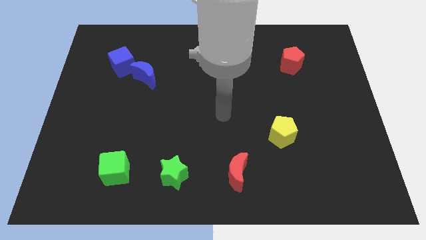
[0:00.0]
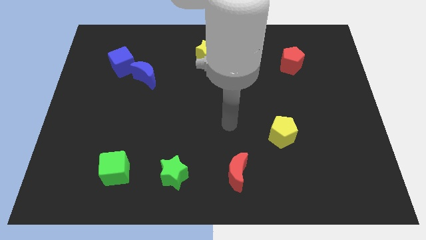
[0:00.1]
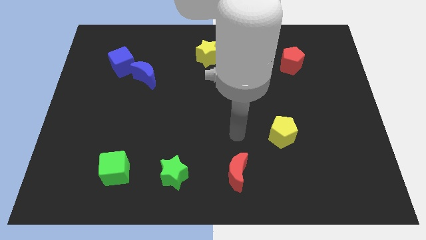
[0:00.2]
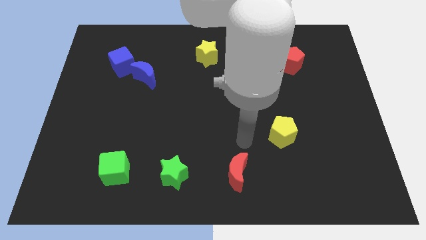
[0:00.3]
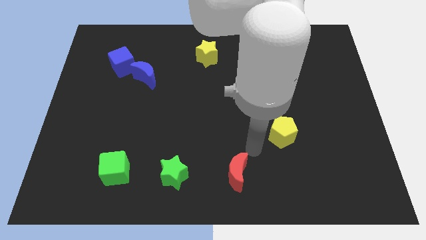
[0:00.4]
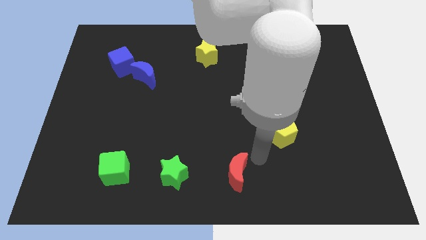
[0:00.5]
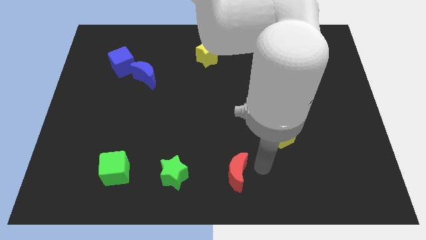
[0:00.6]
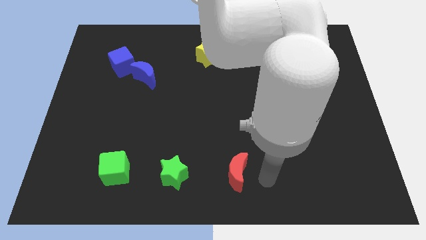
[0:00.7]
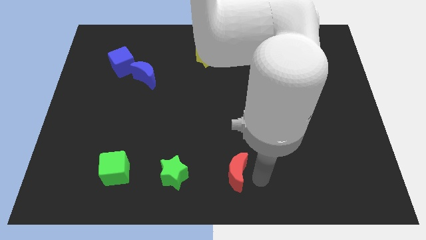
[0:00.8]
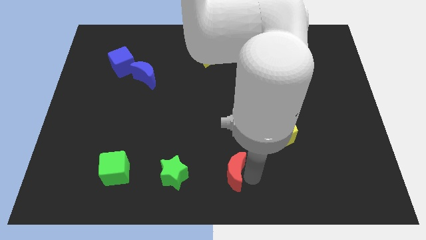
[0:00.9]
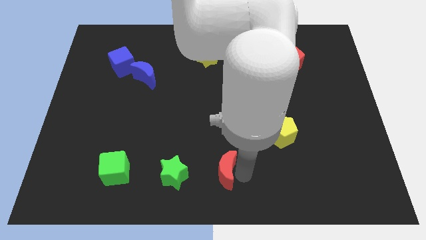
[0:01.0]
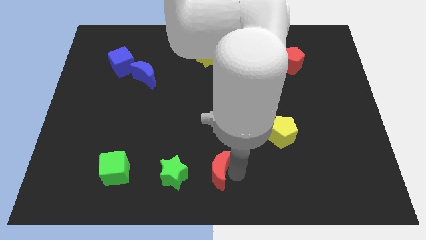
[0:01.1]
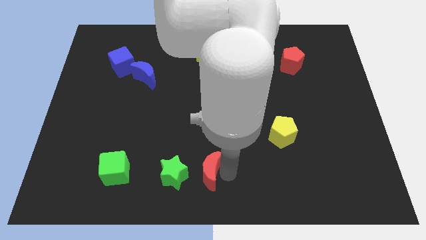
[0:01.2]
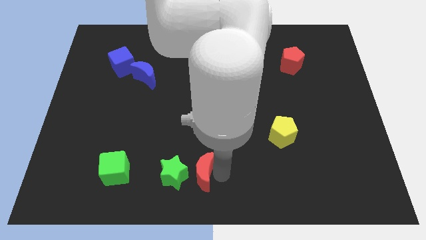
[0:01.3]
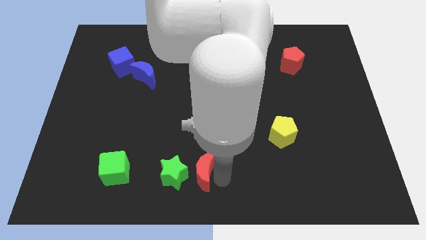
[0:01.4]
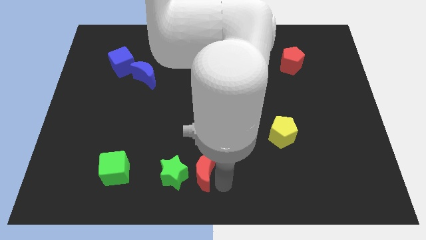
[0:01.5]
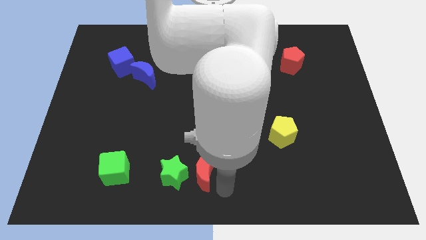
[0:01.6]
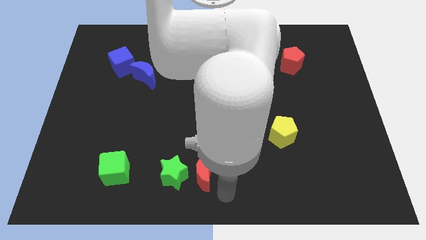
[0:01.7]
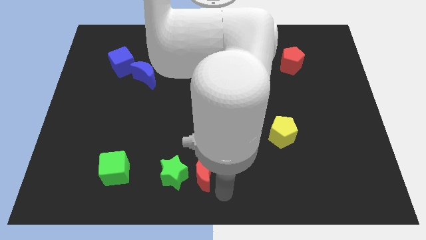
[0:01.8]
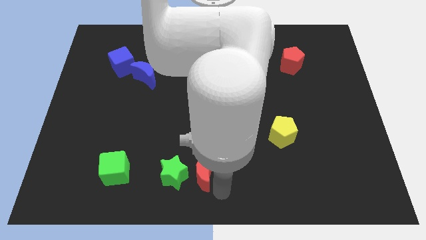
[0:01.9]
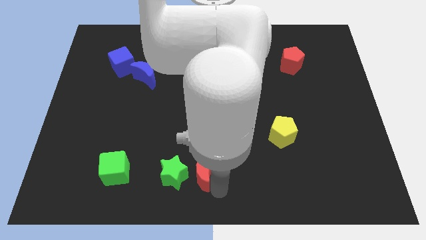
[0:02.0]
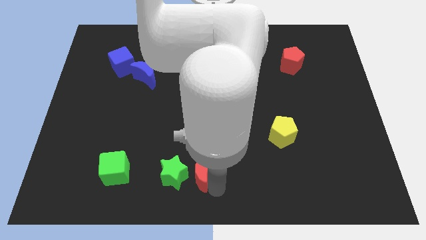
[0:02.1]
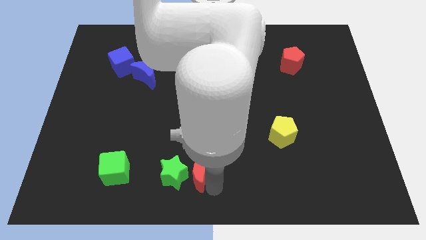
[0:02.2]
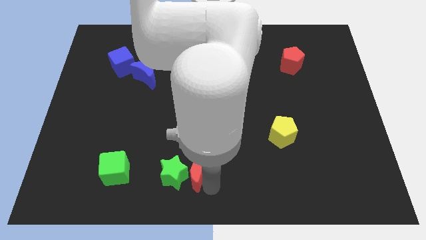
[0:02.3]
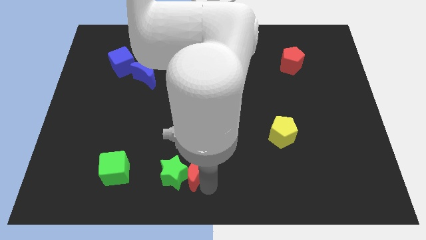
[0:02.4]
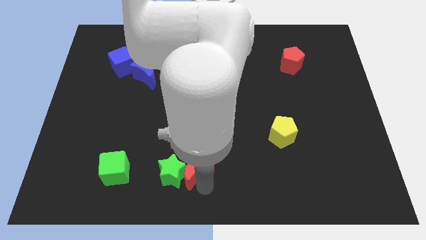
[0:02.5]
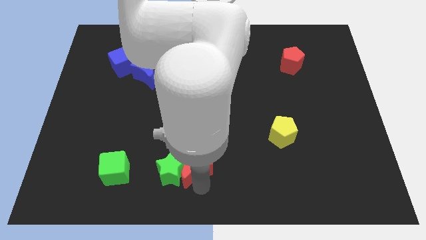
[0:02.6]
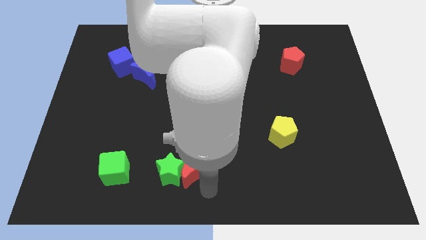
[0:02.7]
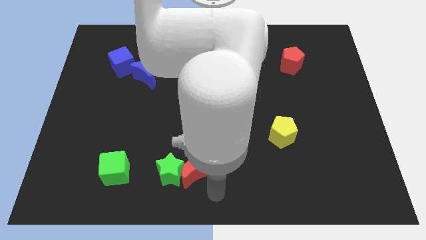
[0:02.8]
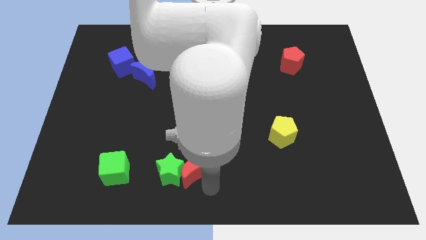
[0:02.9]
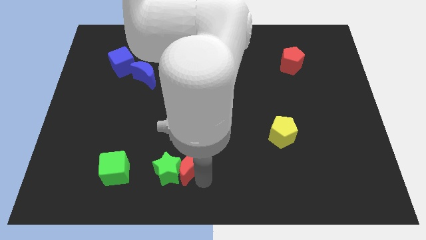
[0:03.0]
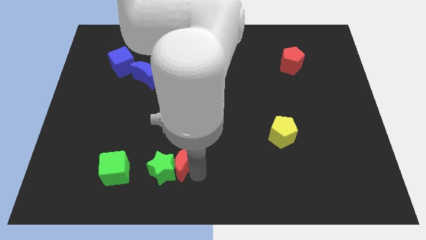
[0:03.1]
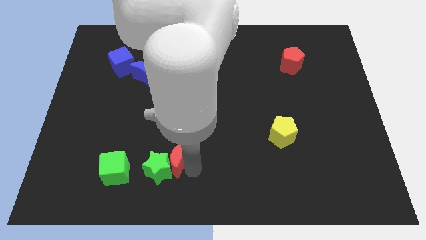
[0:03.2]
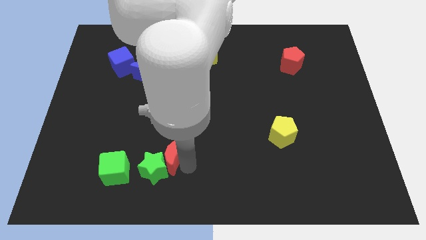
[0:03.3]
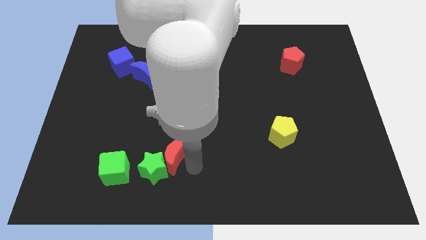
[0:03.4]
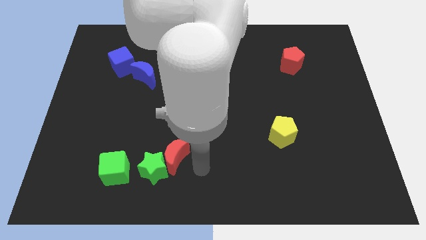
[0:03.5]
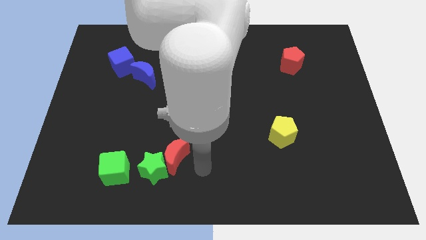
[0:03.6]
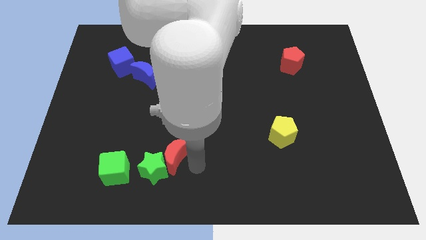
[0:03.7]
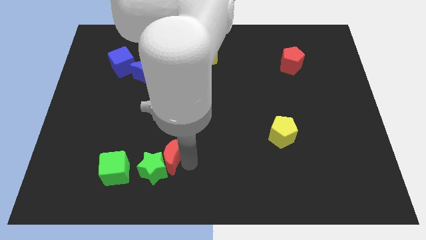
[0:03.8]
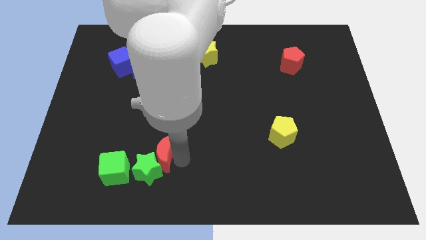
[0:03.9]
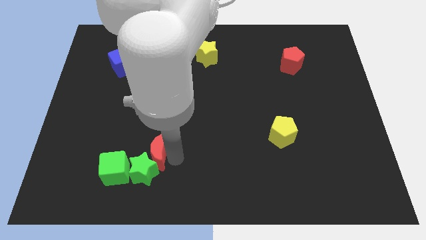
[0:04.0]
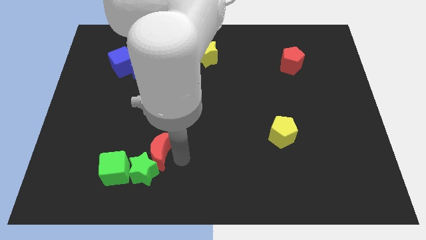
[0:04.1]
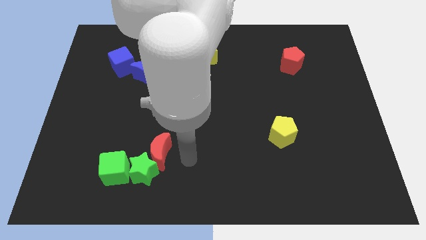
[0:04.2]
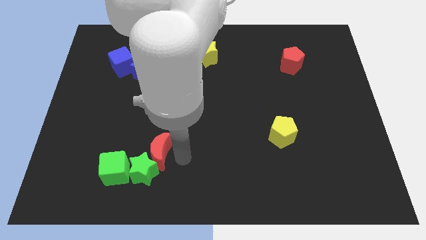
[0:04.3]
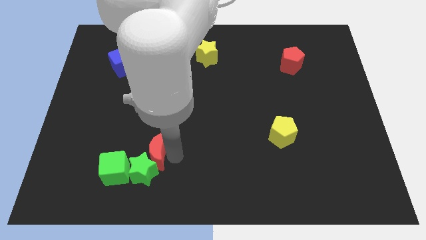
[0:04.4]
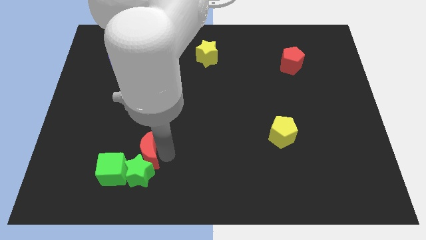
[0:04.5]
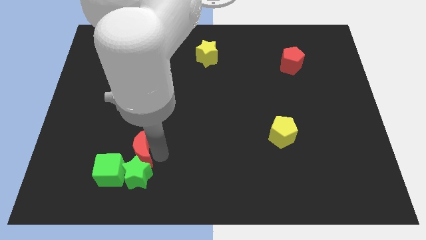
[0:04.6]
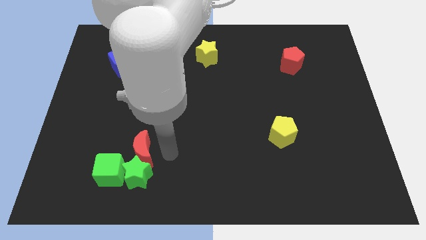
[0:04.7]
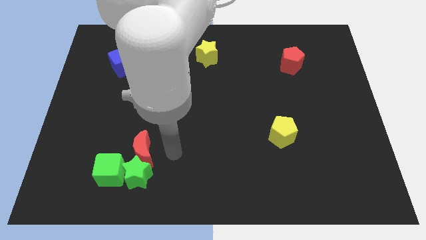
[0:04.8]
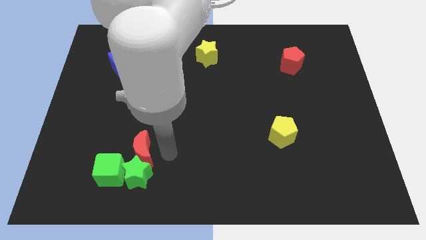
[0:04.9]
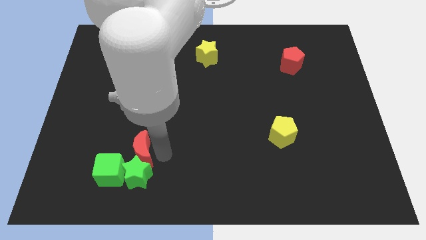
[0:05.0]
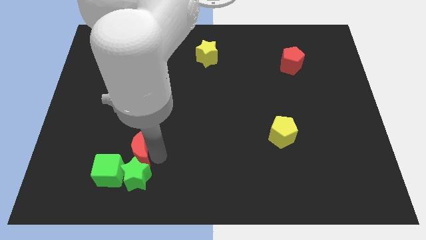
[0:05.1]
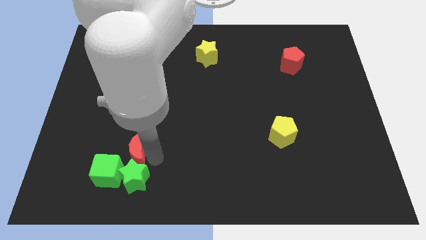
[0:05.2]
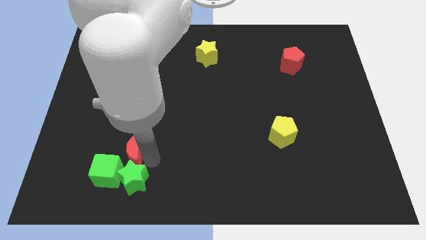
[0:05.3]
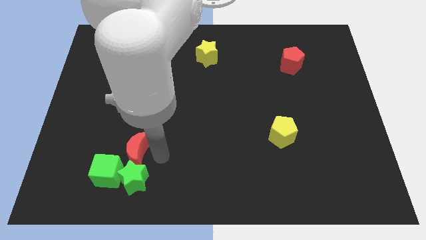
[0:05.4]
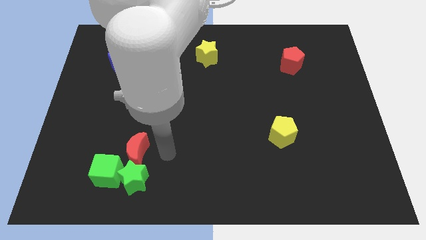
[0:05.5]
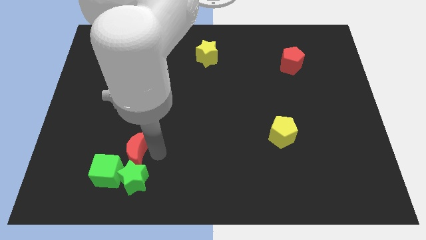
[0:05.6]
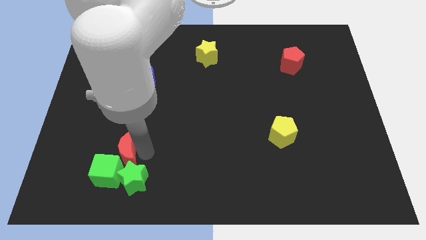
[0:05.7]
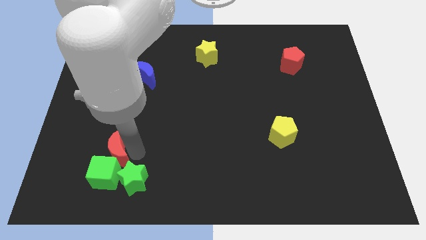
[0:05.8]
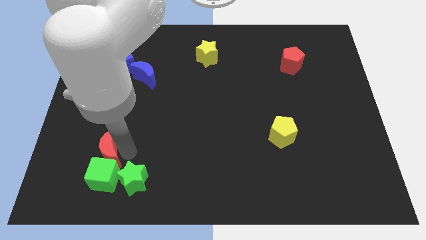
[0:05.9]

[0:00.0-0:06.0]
move the red moon to the top left of the green cube

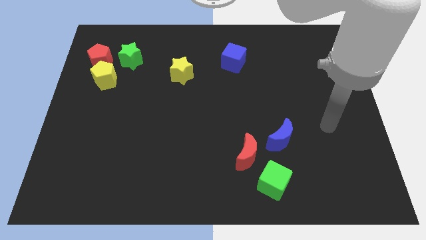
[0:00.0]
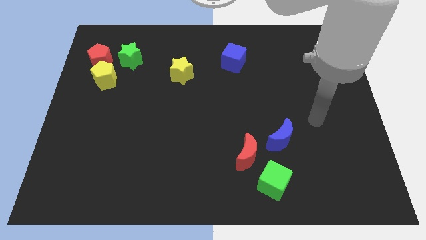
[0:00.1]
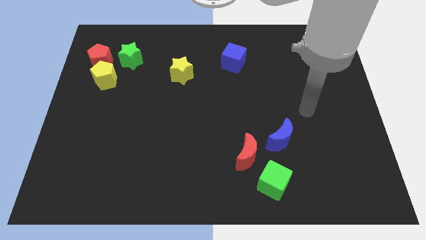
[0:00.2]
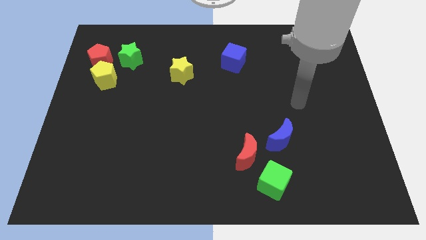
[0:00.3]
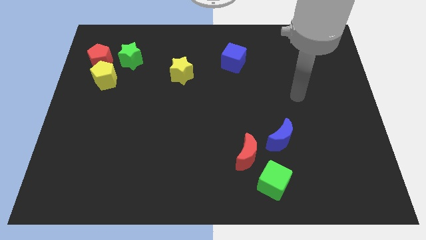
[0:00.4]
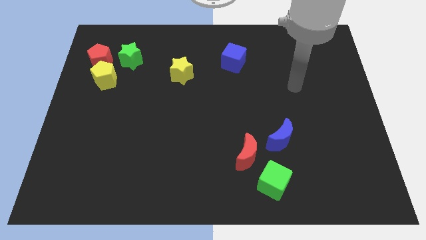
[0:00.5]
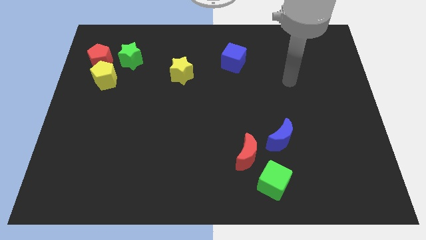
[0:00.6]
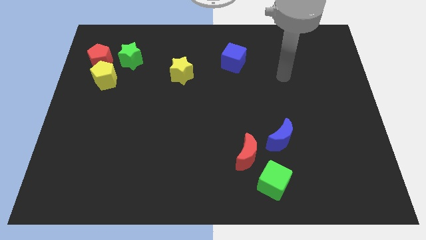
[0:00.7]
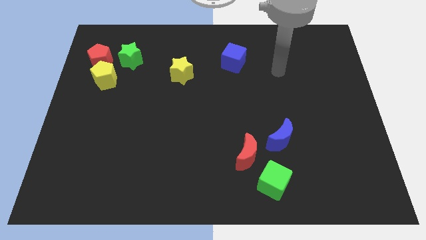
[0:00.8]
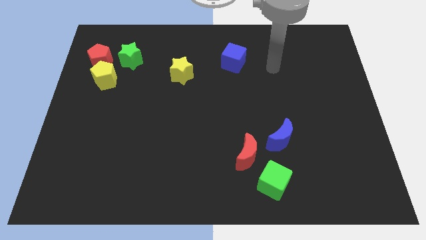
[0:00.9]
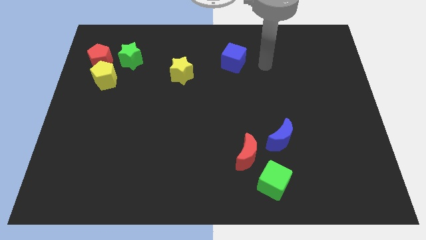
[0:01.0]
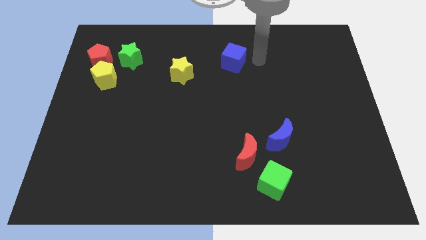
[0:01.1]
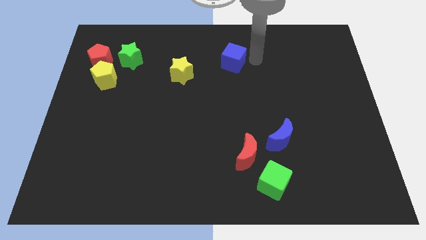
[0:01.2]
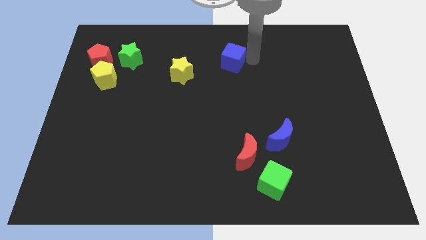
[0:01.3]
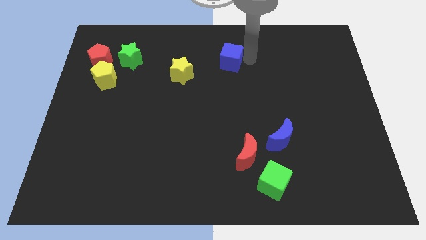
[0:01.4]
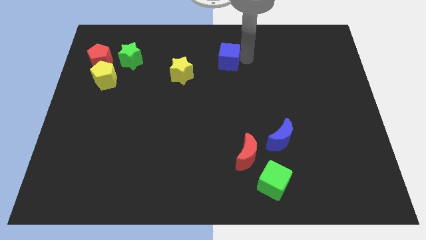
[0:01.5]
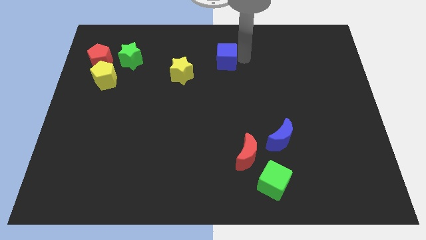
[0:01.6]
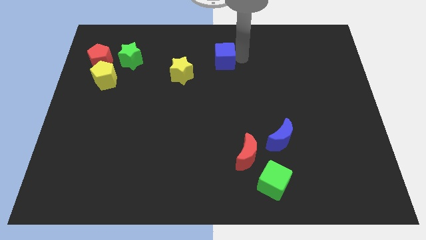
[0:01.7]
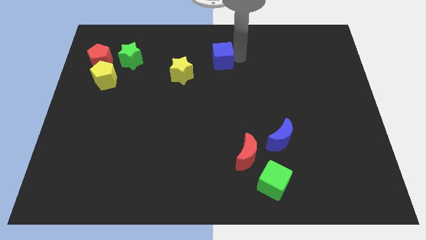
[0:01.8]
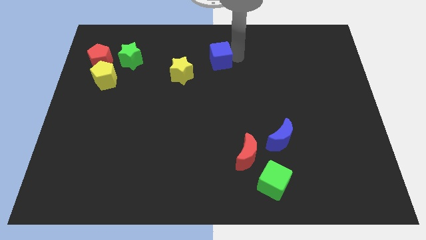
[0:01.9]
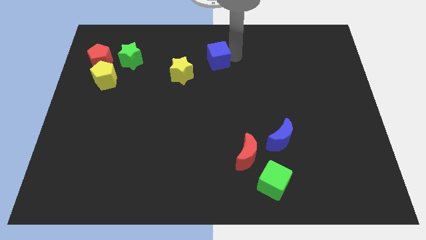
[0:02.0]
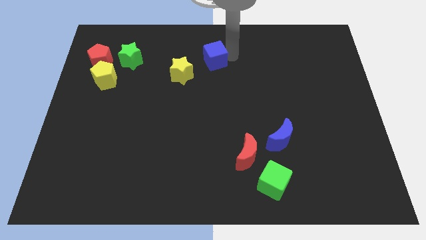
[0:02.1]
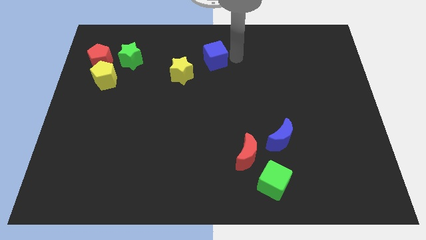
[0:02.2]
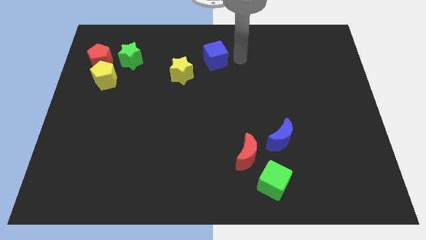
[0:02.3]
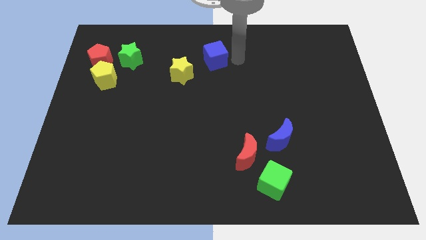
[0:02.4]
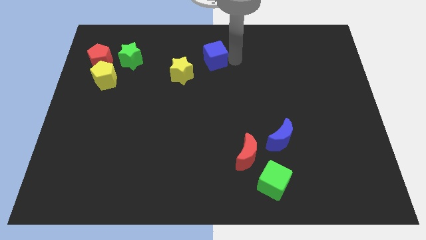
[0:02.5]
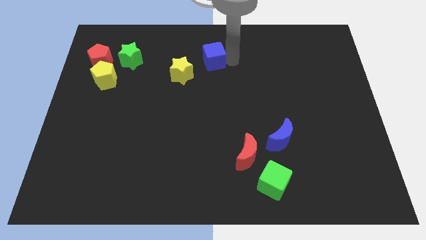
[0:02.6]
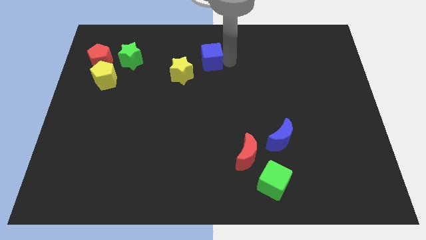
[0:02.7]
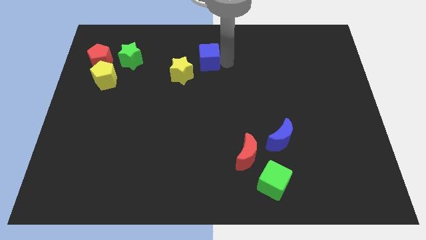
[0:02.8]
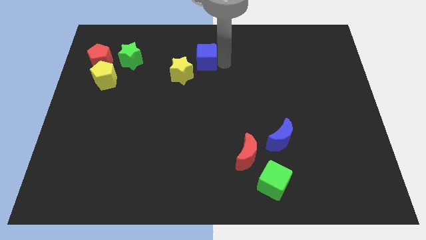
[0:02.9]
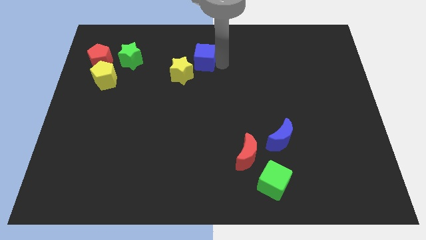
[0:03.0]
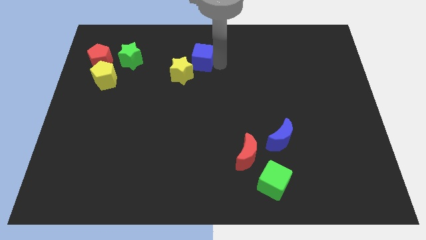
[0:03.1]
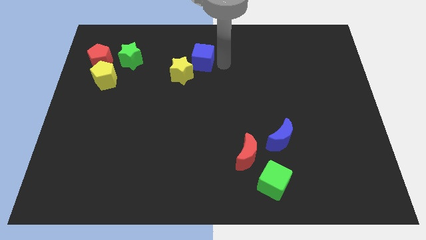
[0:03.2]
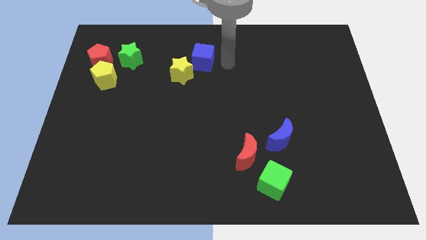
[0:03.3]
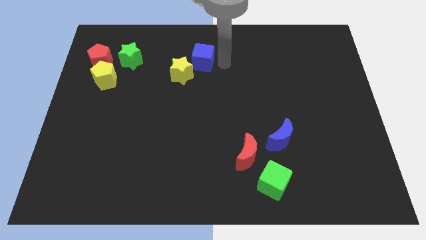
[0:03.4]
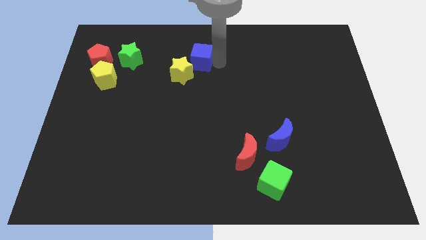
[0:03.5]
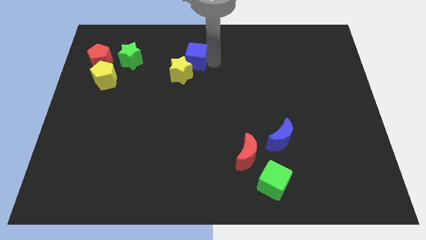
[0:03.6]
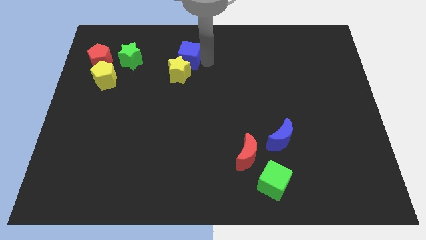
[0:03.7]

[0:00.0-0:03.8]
move the blue cube just right of the green star
